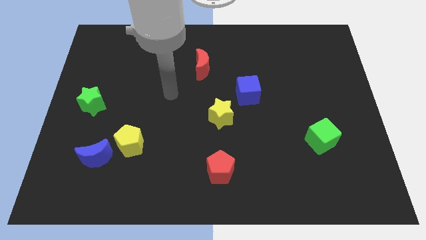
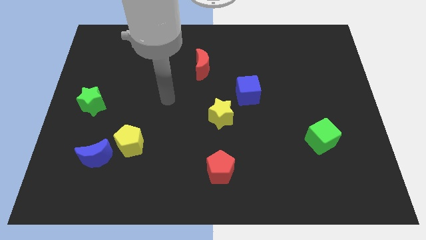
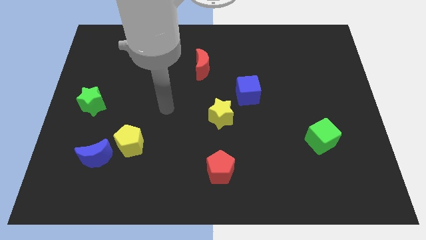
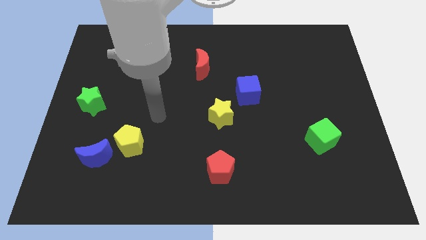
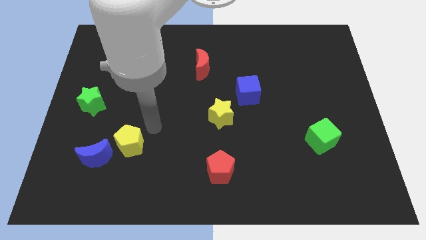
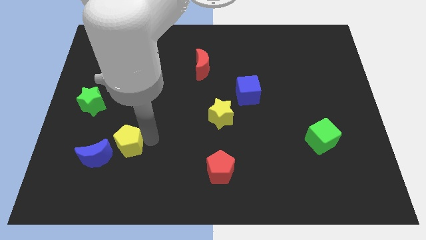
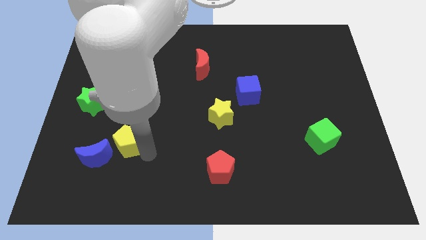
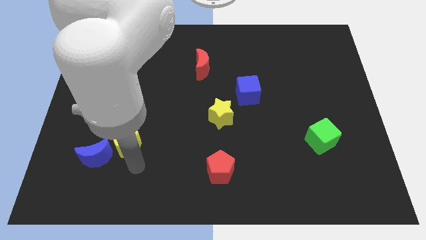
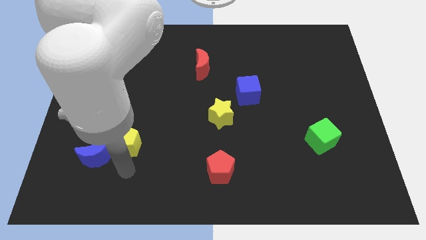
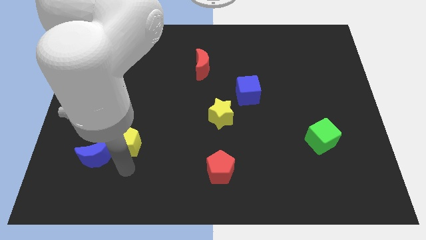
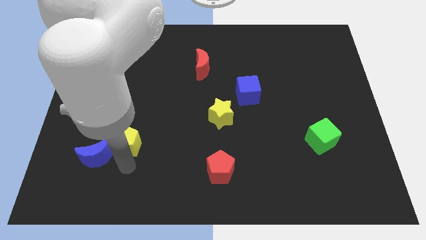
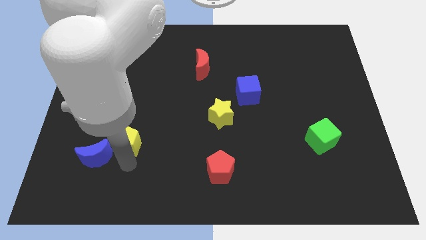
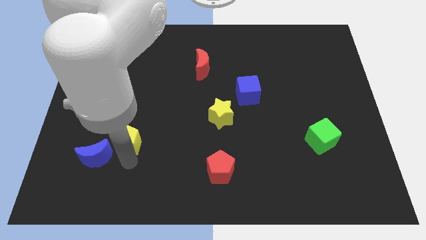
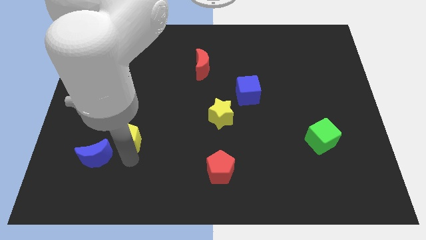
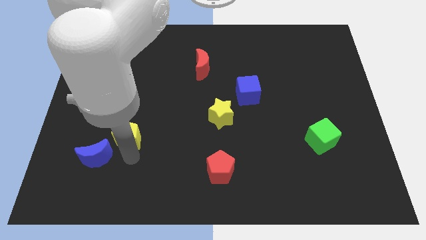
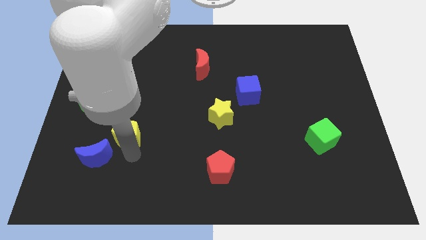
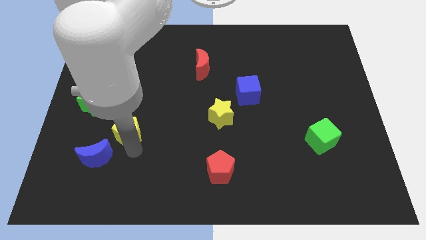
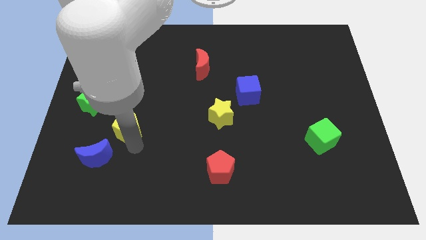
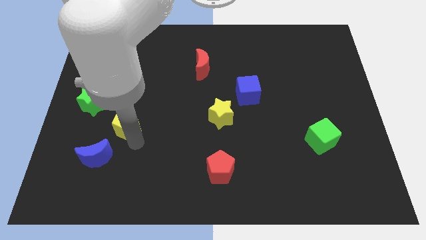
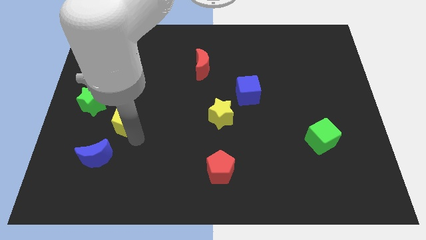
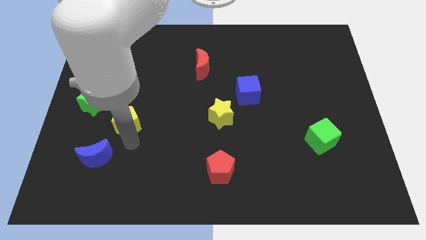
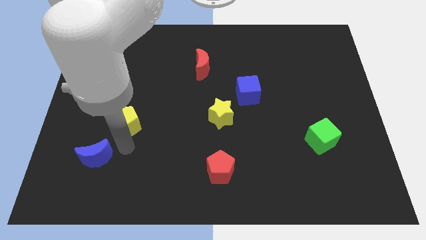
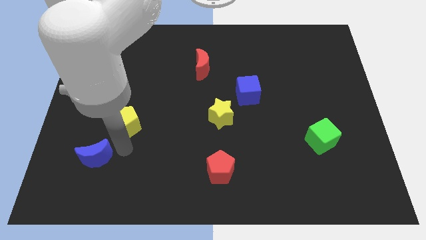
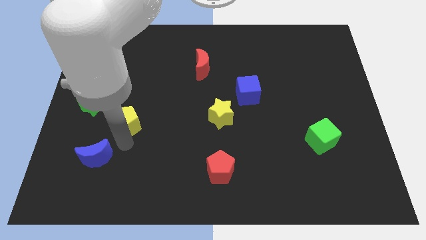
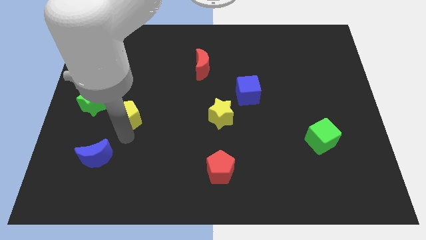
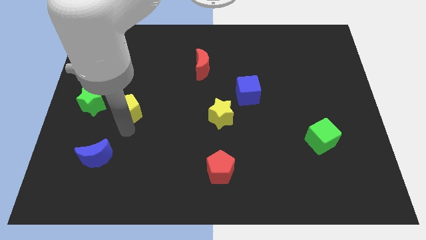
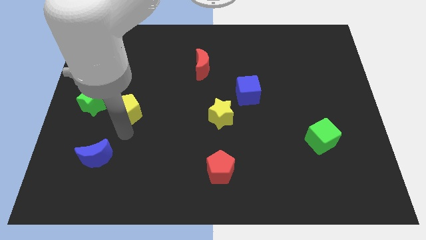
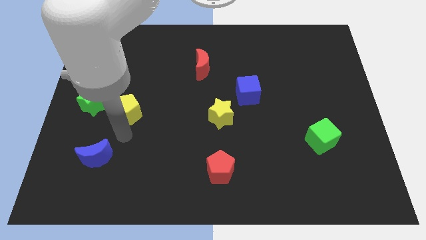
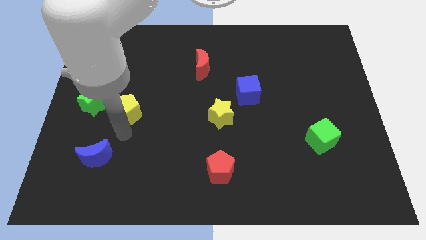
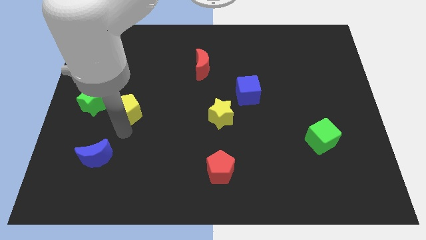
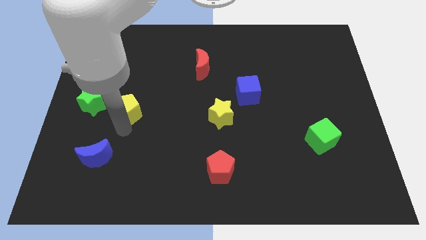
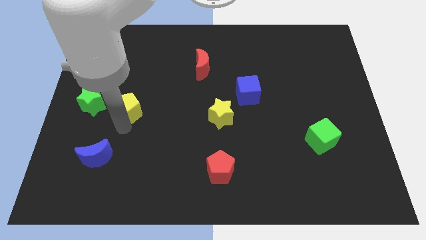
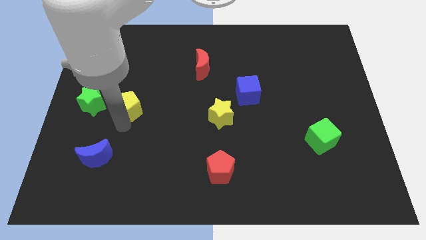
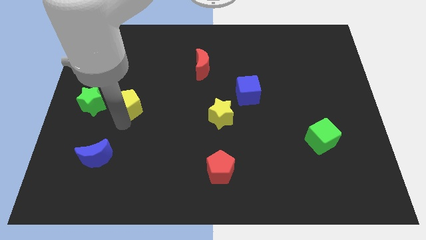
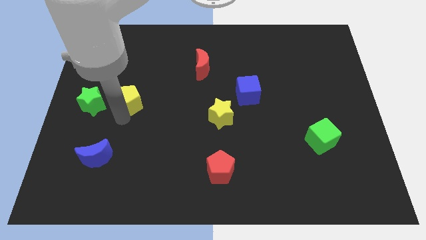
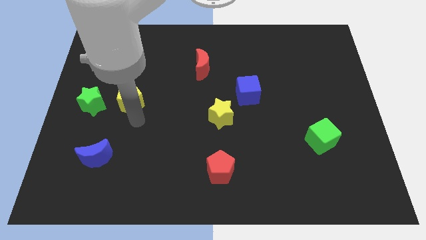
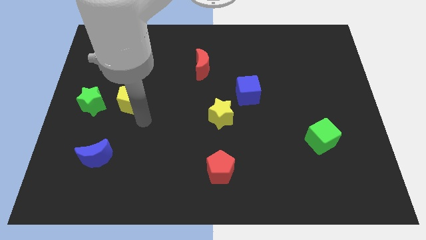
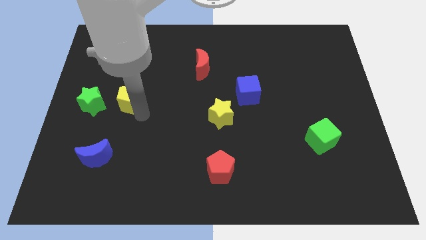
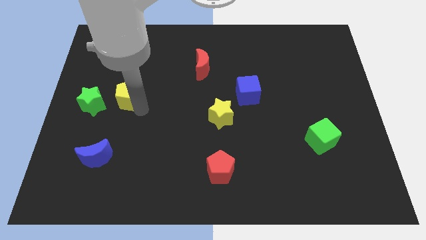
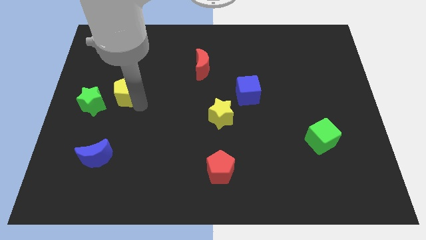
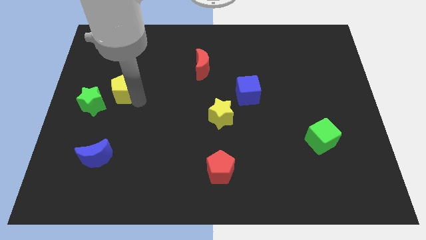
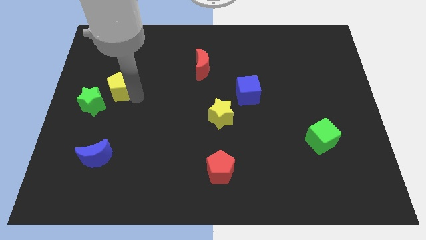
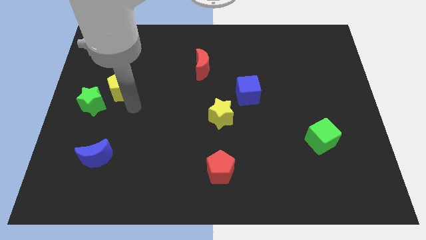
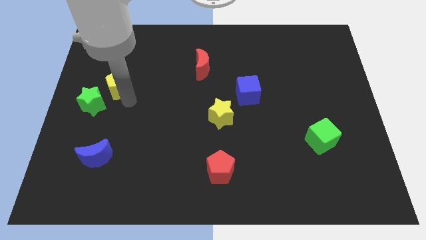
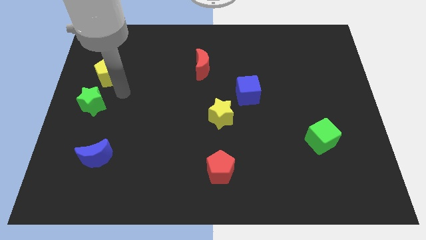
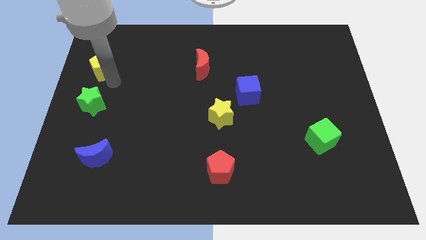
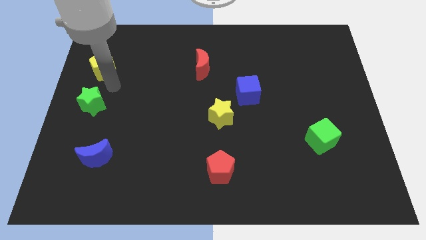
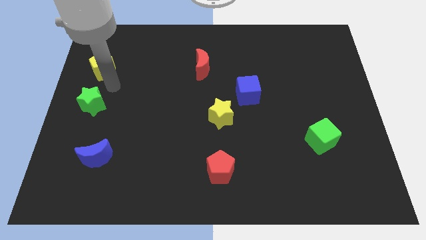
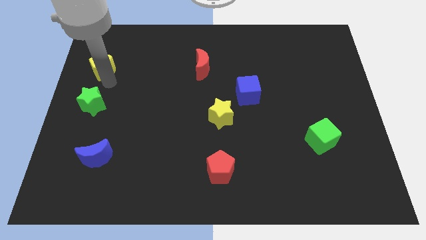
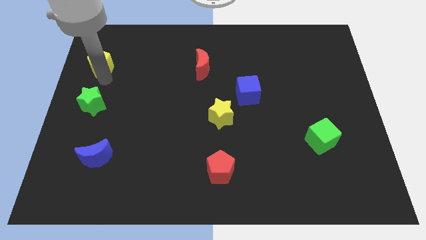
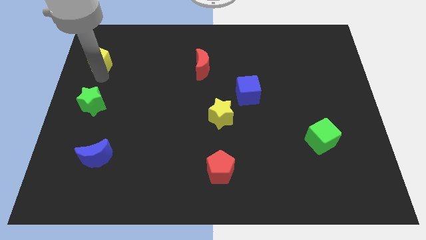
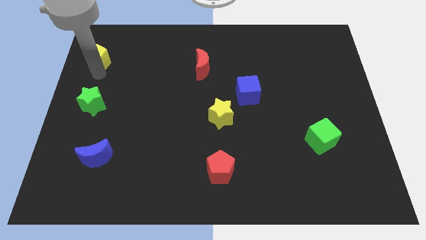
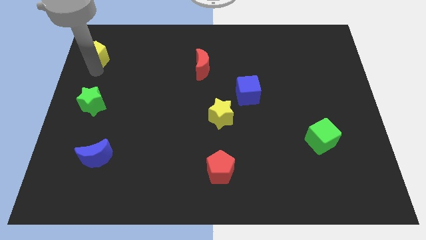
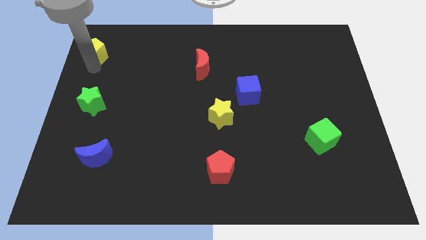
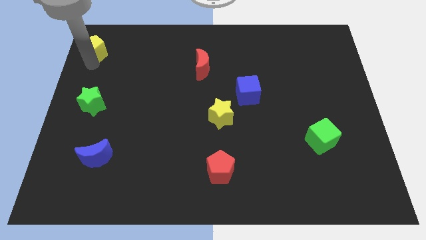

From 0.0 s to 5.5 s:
push the yellow pentagon to the upper left corner
